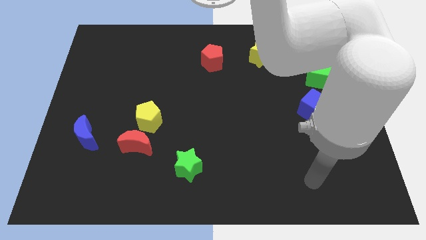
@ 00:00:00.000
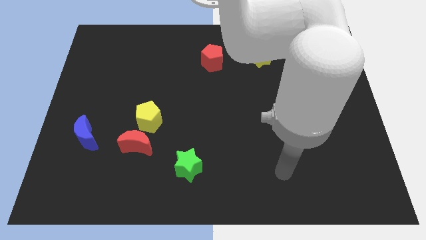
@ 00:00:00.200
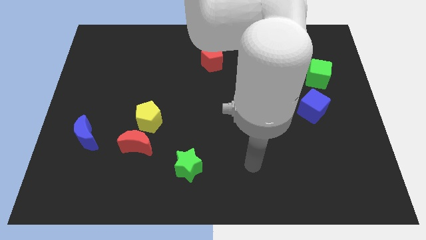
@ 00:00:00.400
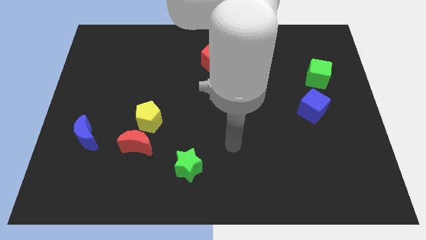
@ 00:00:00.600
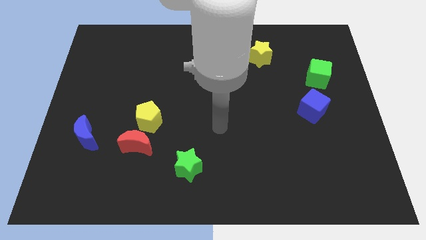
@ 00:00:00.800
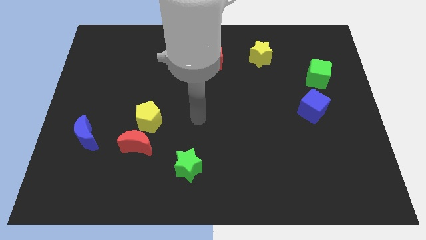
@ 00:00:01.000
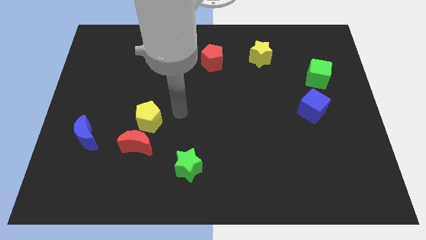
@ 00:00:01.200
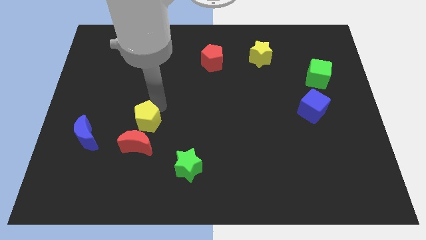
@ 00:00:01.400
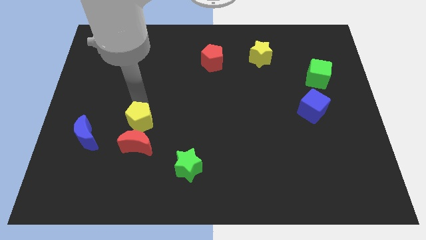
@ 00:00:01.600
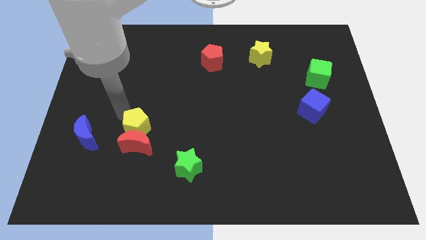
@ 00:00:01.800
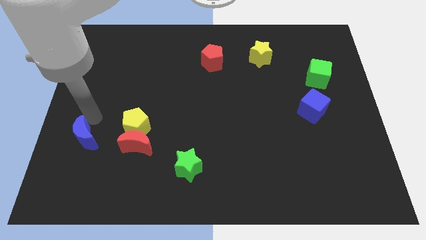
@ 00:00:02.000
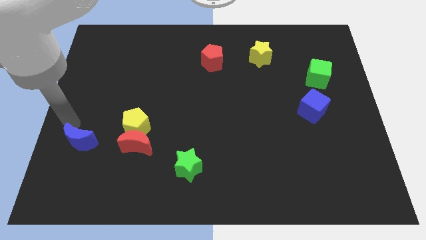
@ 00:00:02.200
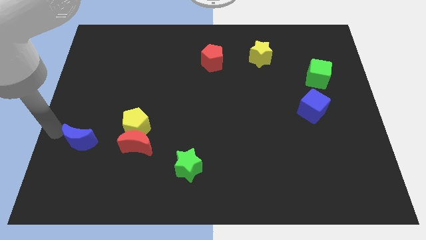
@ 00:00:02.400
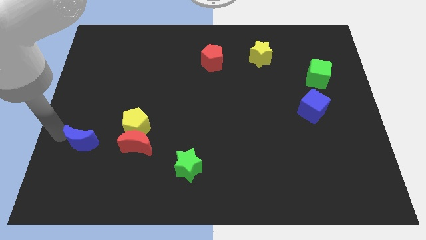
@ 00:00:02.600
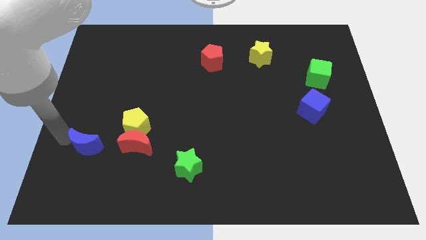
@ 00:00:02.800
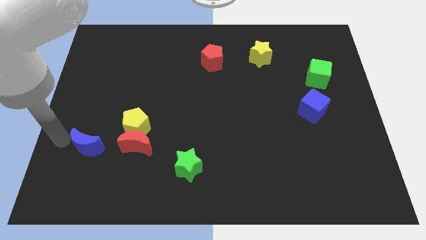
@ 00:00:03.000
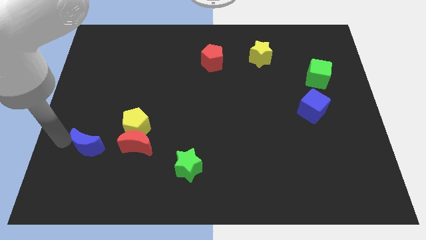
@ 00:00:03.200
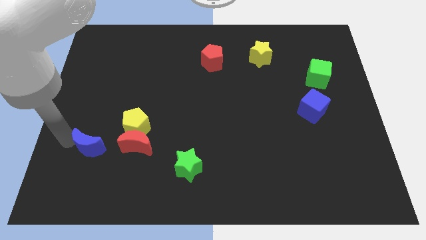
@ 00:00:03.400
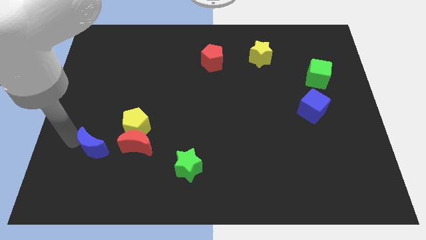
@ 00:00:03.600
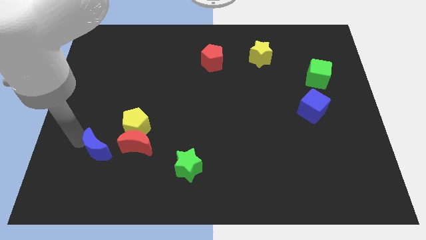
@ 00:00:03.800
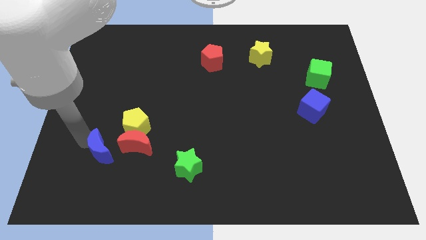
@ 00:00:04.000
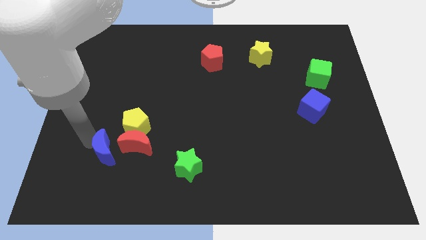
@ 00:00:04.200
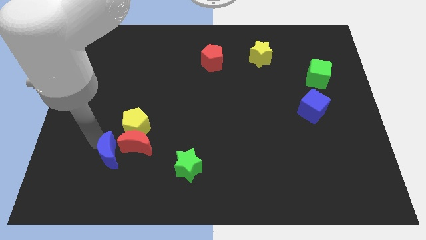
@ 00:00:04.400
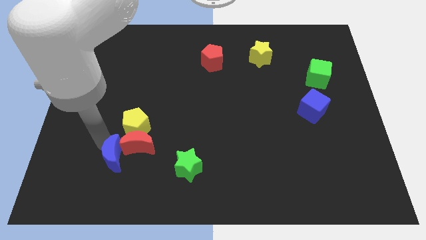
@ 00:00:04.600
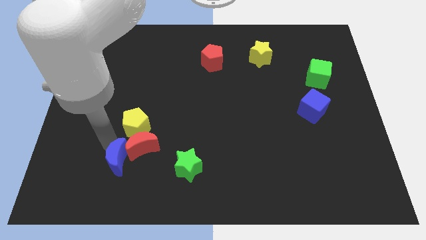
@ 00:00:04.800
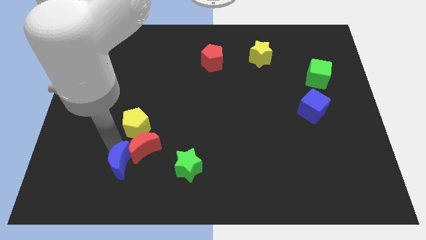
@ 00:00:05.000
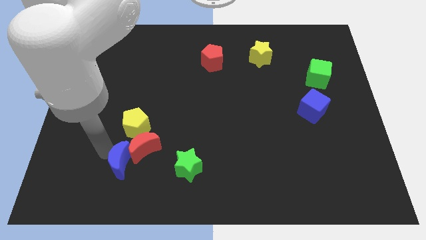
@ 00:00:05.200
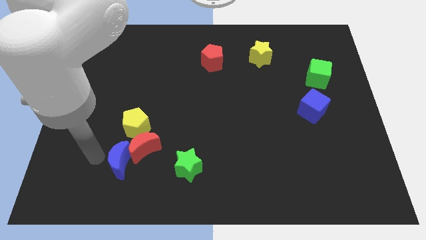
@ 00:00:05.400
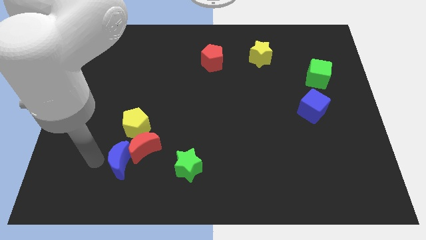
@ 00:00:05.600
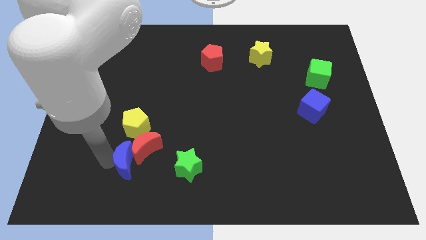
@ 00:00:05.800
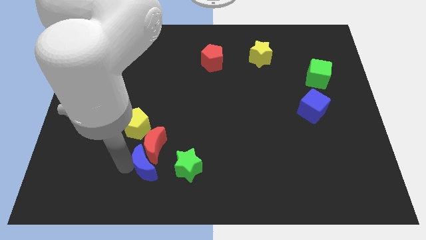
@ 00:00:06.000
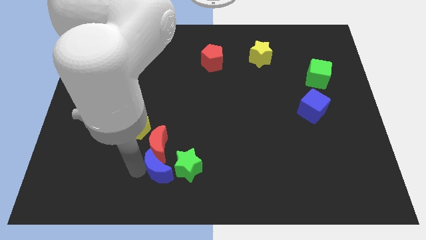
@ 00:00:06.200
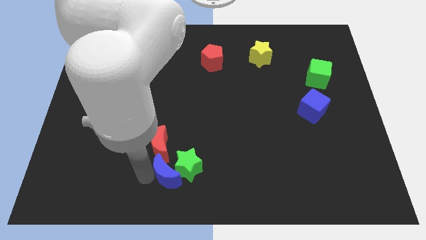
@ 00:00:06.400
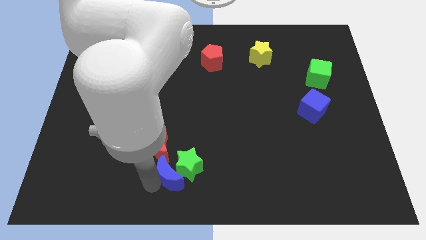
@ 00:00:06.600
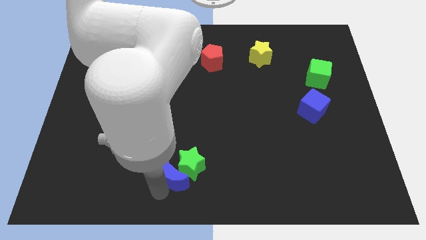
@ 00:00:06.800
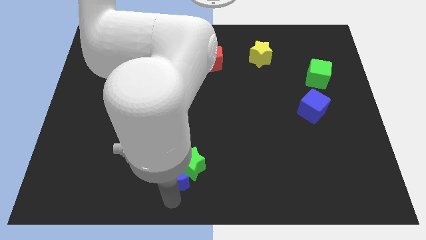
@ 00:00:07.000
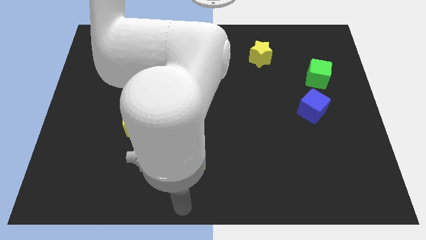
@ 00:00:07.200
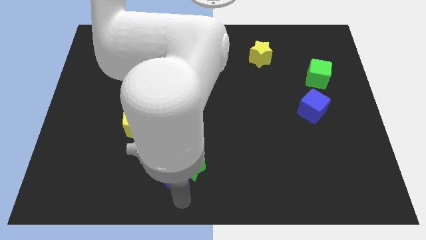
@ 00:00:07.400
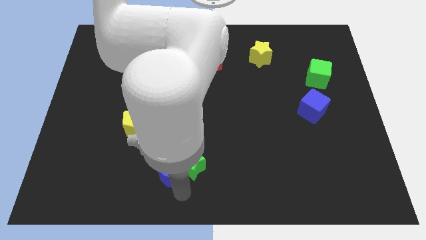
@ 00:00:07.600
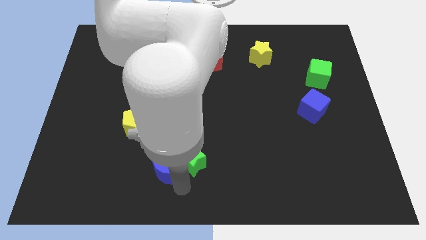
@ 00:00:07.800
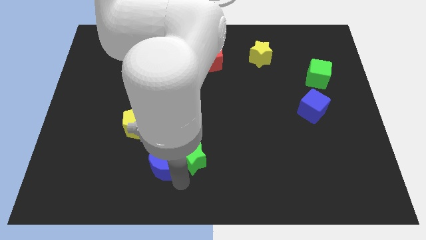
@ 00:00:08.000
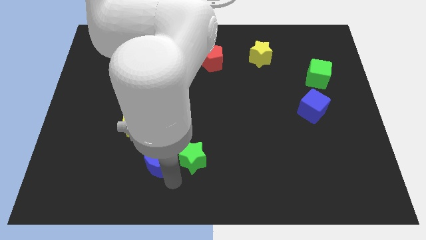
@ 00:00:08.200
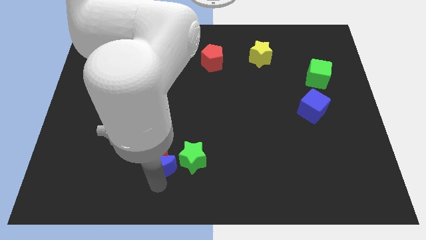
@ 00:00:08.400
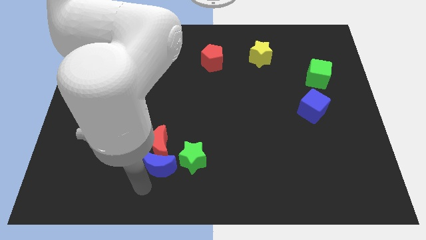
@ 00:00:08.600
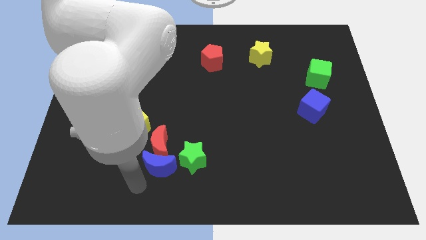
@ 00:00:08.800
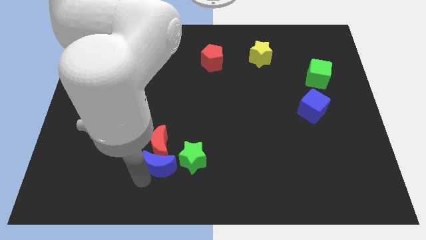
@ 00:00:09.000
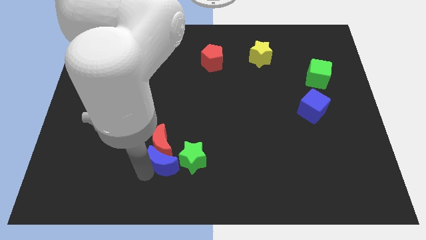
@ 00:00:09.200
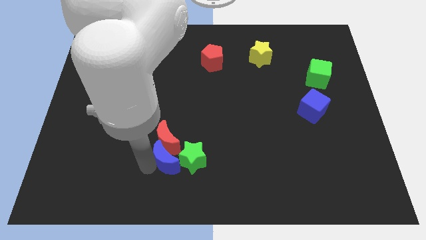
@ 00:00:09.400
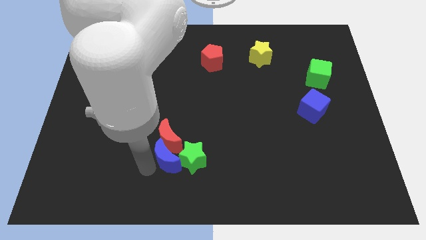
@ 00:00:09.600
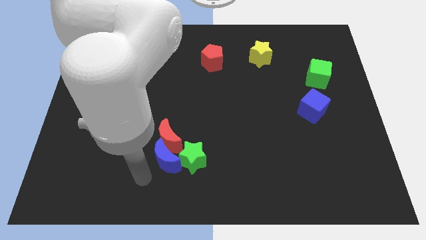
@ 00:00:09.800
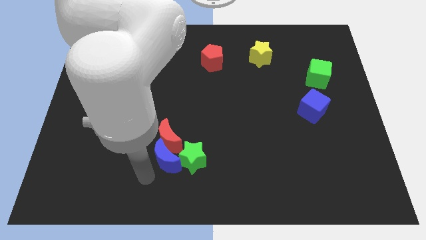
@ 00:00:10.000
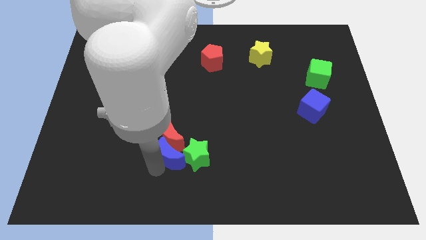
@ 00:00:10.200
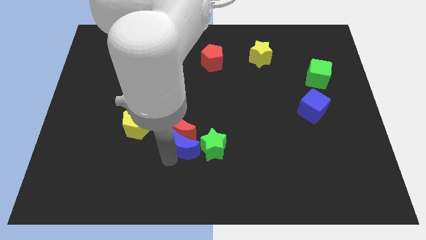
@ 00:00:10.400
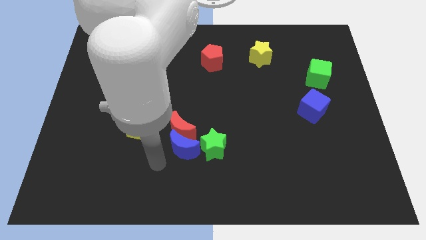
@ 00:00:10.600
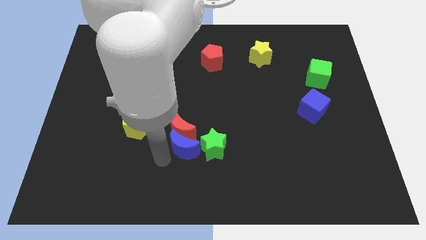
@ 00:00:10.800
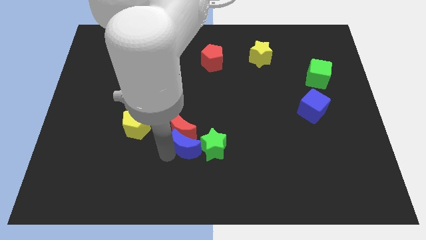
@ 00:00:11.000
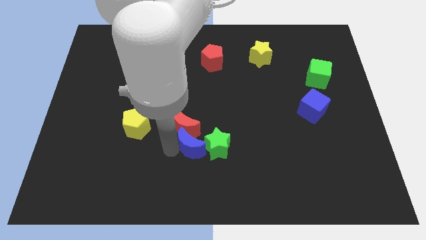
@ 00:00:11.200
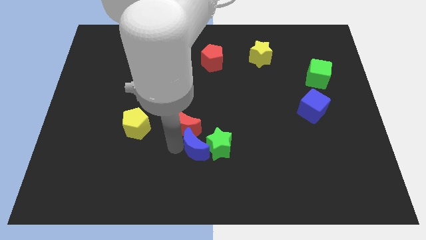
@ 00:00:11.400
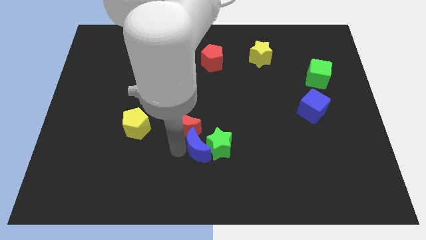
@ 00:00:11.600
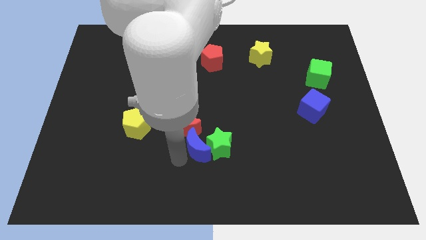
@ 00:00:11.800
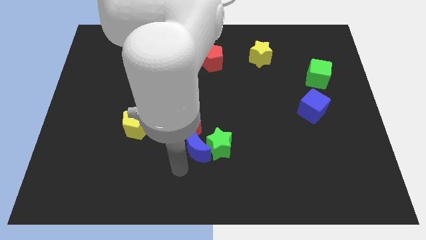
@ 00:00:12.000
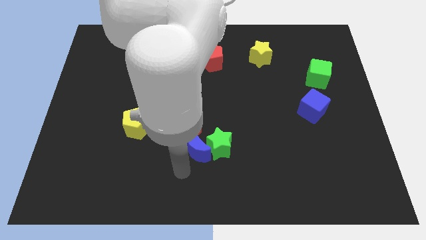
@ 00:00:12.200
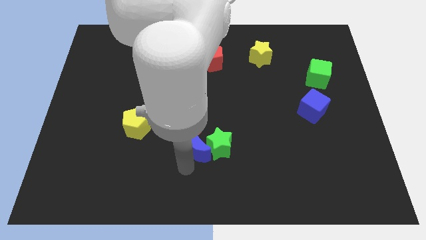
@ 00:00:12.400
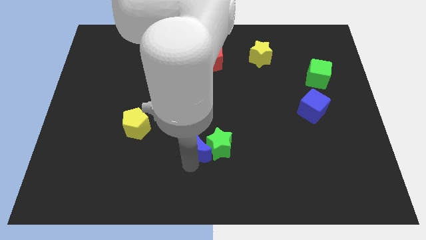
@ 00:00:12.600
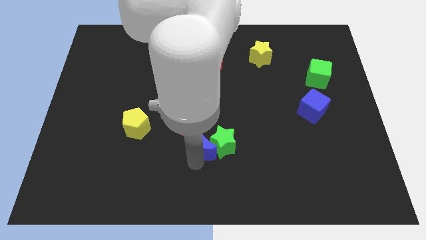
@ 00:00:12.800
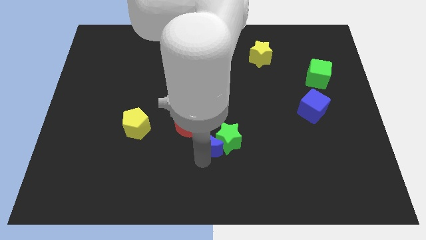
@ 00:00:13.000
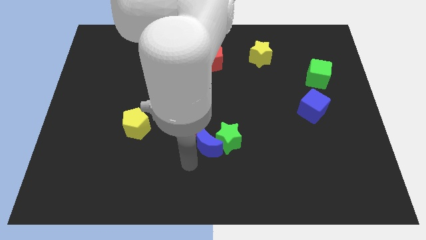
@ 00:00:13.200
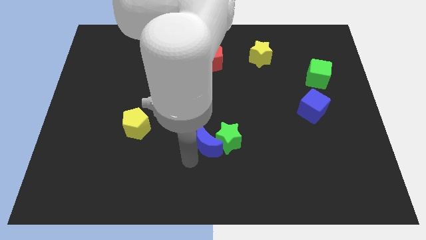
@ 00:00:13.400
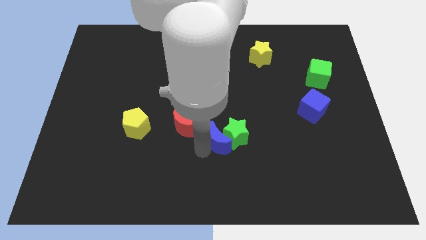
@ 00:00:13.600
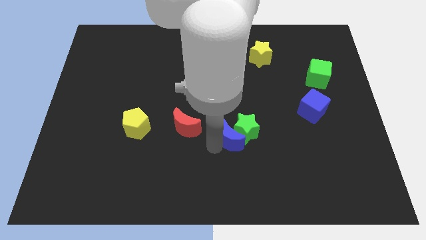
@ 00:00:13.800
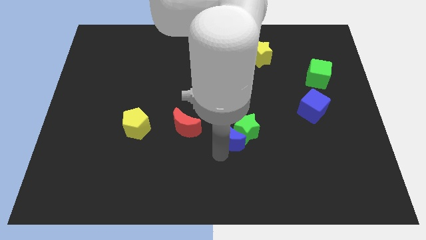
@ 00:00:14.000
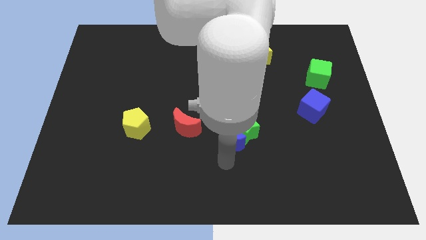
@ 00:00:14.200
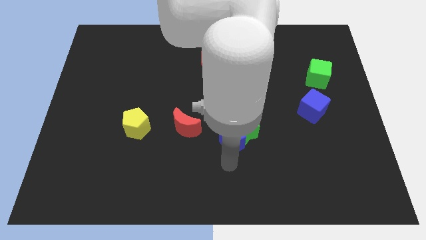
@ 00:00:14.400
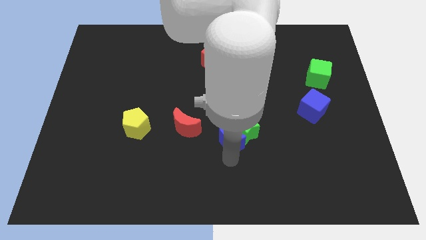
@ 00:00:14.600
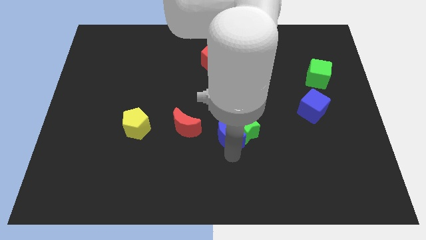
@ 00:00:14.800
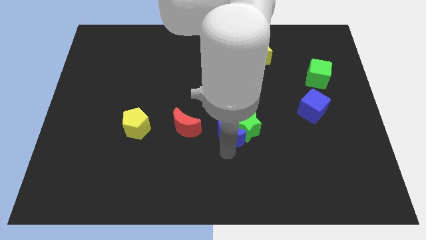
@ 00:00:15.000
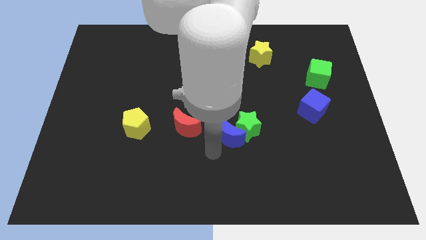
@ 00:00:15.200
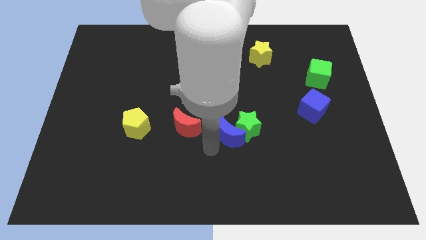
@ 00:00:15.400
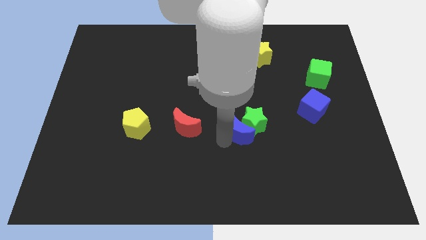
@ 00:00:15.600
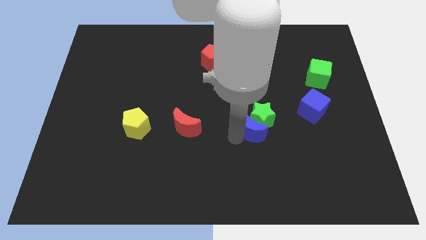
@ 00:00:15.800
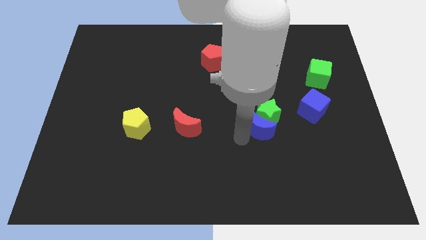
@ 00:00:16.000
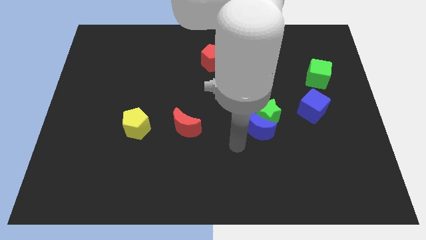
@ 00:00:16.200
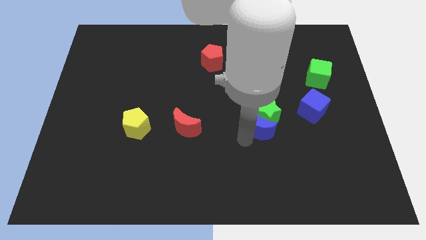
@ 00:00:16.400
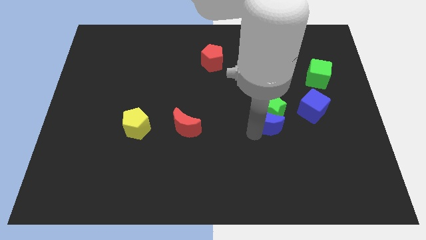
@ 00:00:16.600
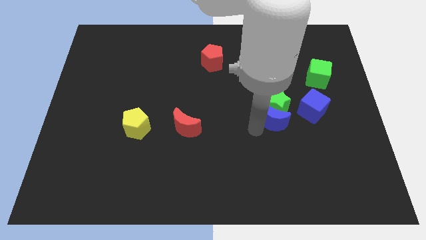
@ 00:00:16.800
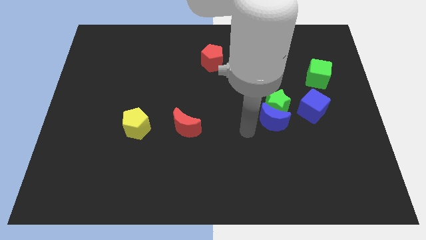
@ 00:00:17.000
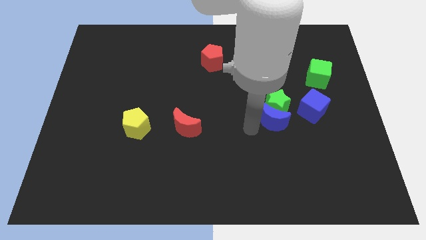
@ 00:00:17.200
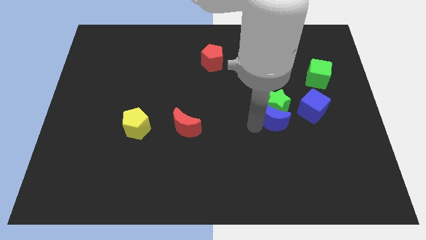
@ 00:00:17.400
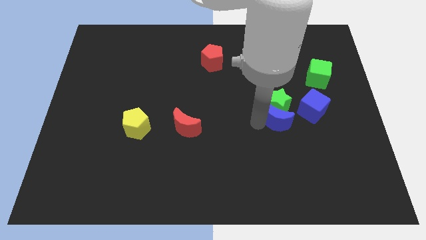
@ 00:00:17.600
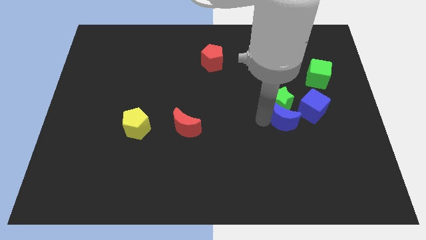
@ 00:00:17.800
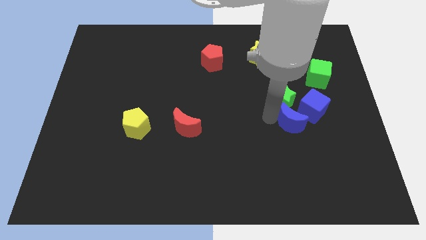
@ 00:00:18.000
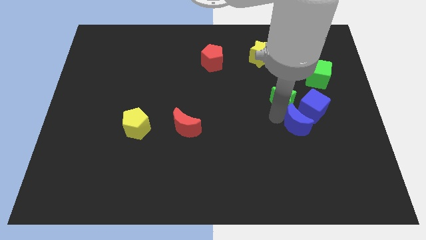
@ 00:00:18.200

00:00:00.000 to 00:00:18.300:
slide the blue moon next to the blue cube
